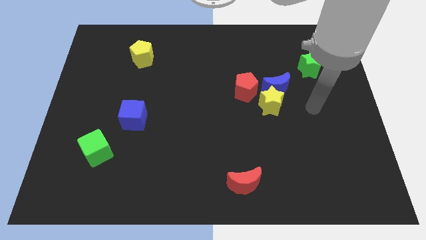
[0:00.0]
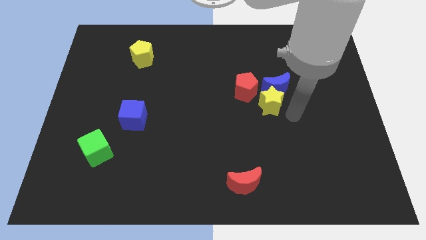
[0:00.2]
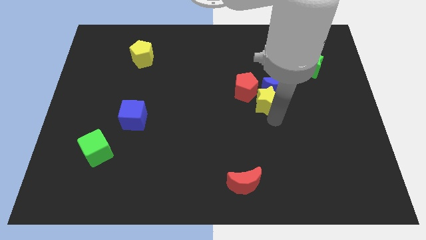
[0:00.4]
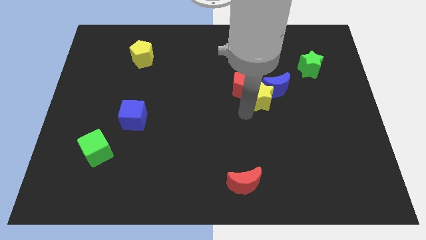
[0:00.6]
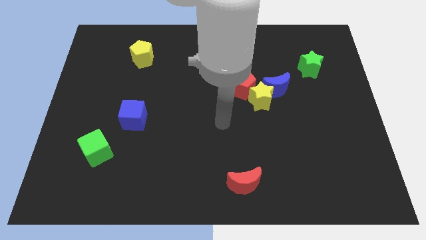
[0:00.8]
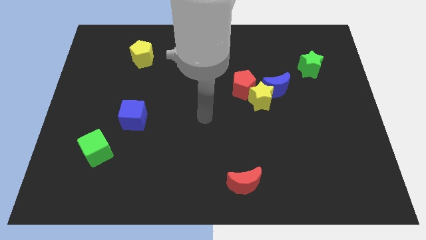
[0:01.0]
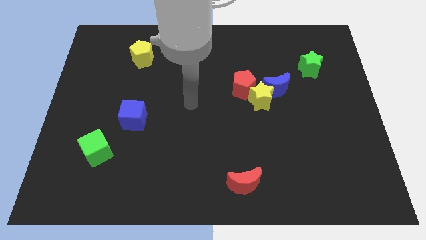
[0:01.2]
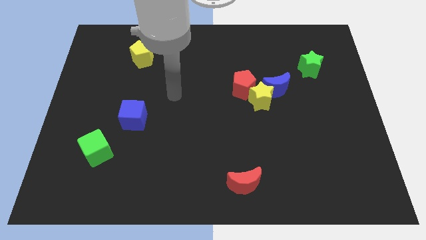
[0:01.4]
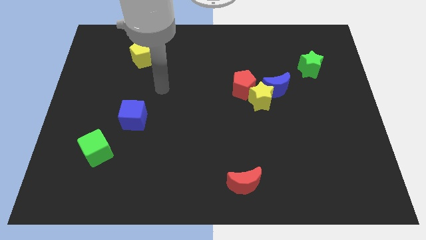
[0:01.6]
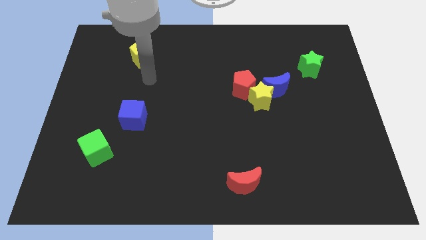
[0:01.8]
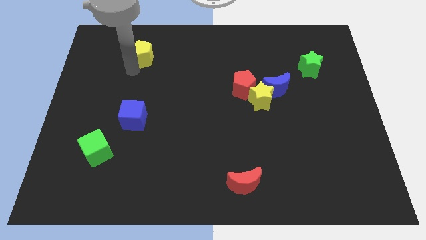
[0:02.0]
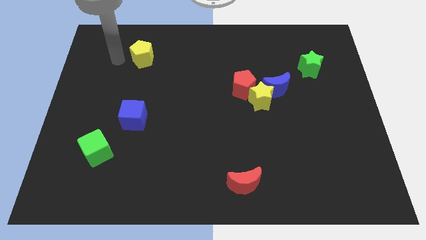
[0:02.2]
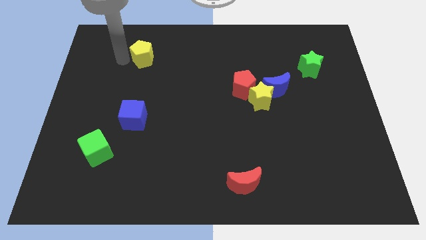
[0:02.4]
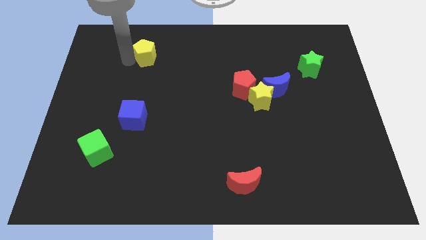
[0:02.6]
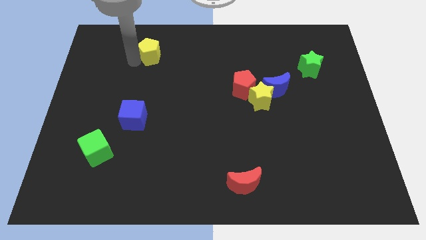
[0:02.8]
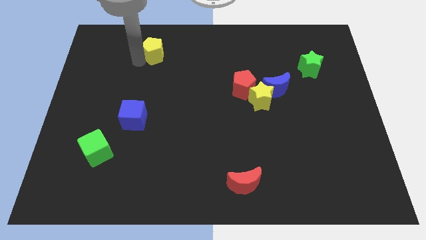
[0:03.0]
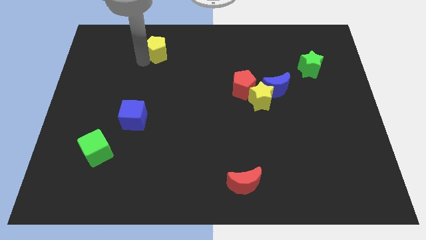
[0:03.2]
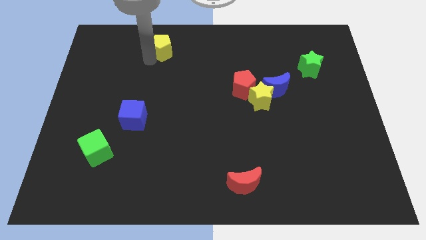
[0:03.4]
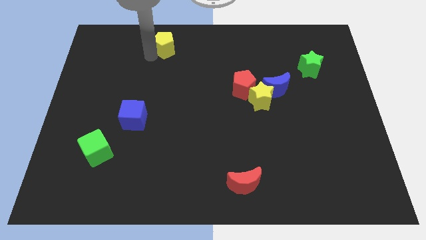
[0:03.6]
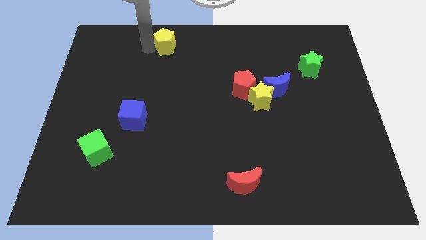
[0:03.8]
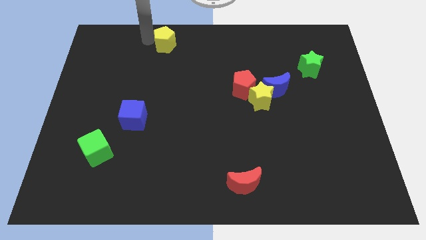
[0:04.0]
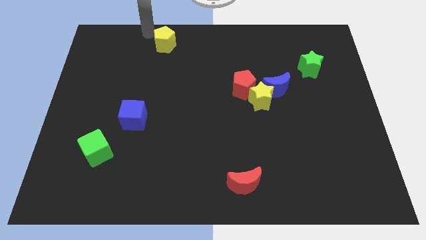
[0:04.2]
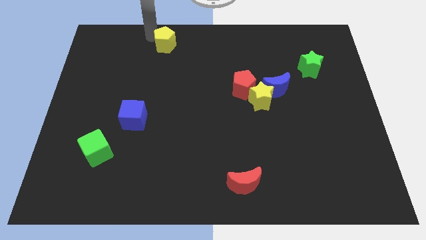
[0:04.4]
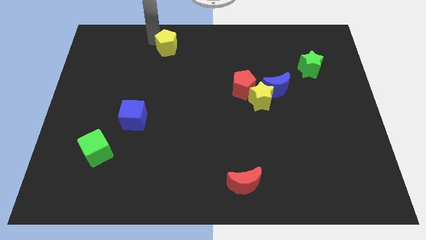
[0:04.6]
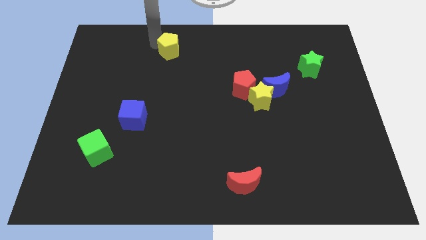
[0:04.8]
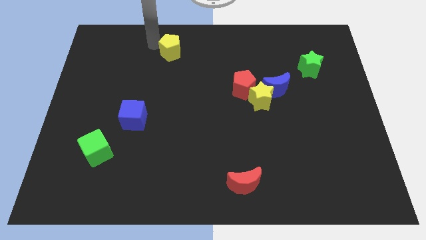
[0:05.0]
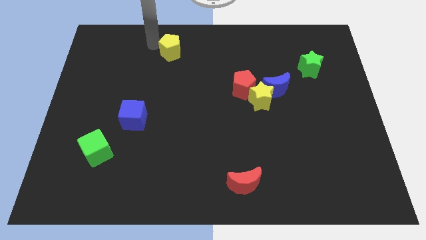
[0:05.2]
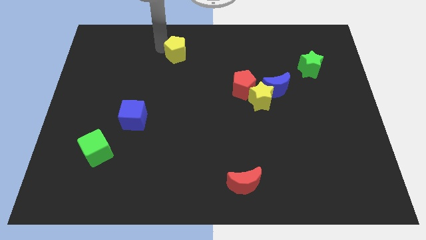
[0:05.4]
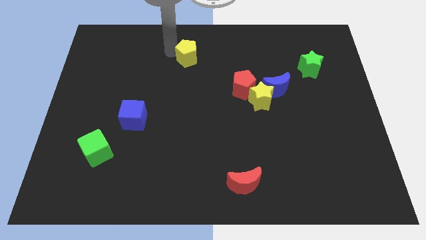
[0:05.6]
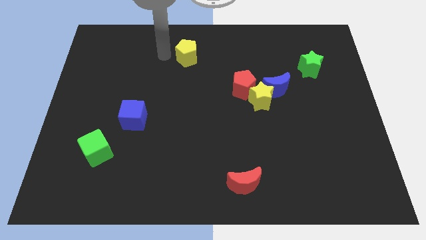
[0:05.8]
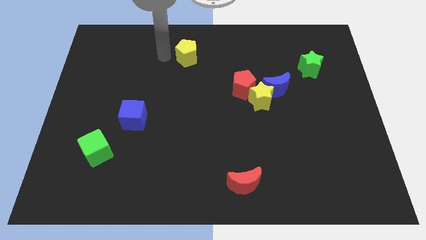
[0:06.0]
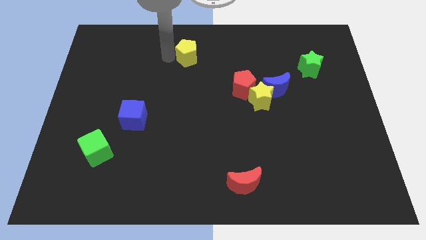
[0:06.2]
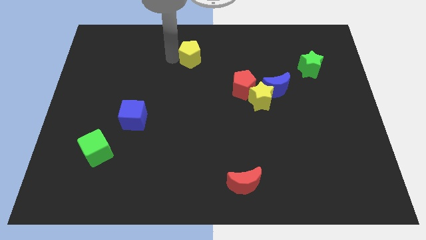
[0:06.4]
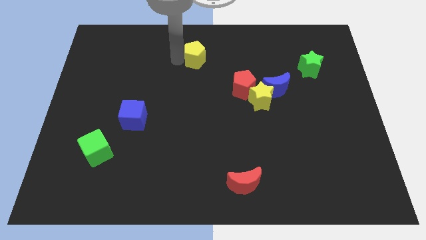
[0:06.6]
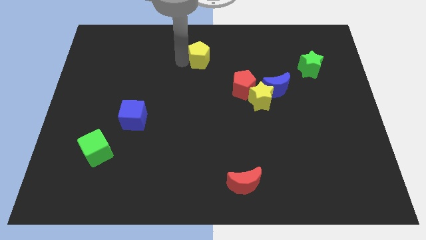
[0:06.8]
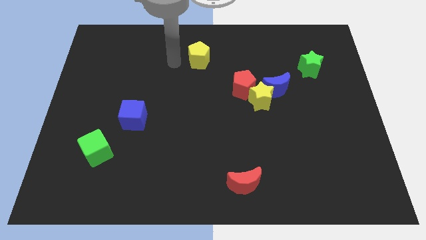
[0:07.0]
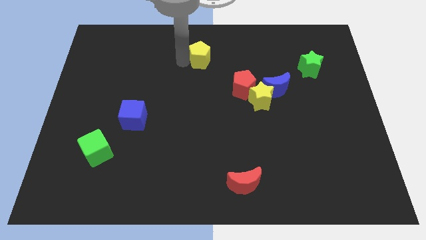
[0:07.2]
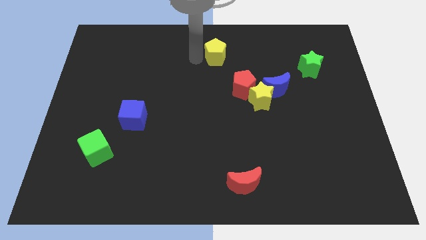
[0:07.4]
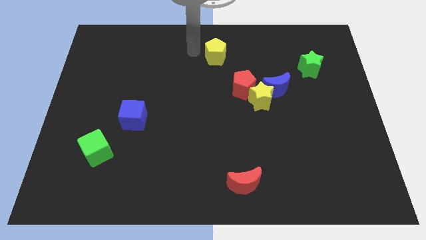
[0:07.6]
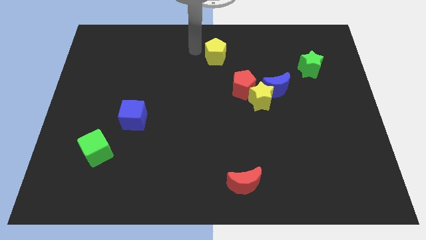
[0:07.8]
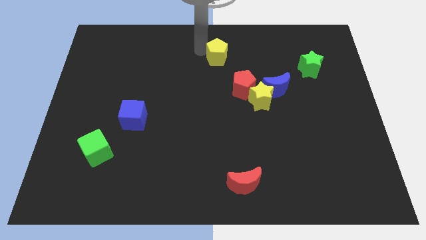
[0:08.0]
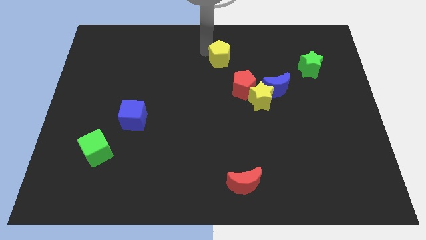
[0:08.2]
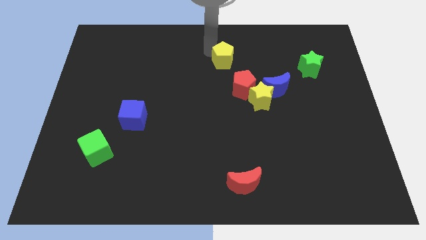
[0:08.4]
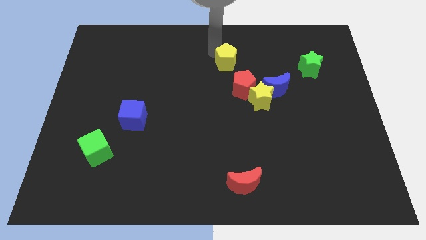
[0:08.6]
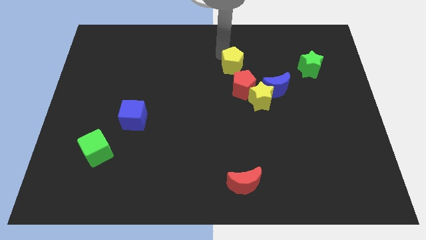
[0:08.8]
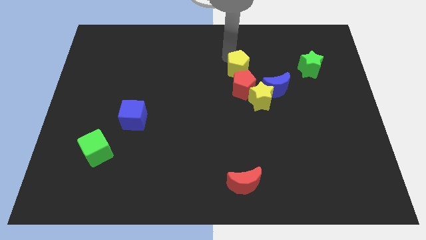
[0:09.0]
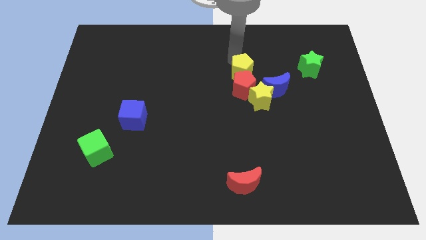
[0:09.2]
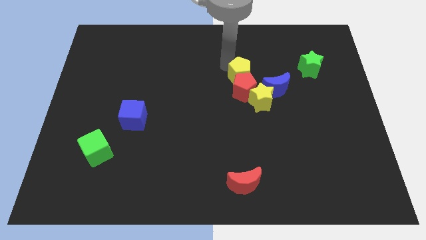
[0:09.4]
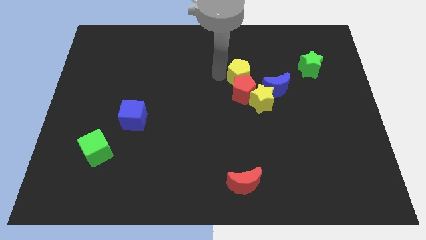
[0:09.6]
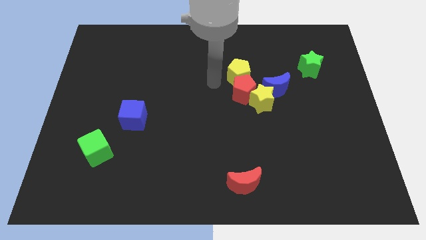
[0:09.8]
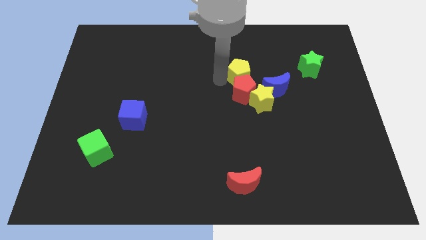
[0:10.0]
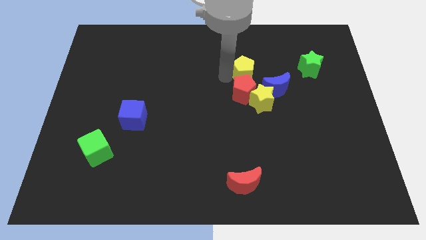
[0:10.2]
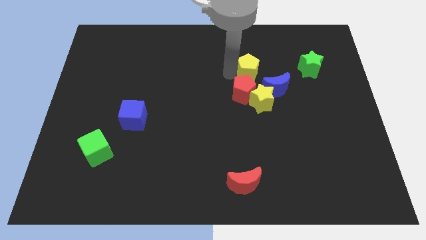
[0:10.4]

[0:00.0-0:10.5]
move the yellow pentagon left of the green star

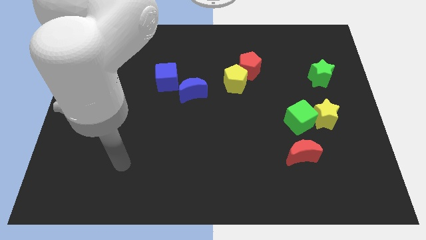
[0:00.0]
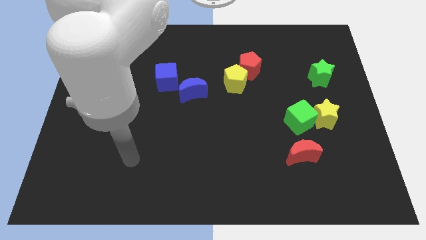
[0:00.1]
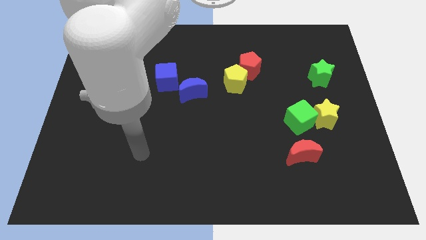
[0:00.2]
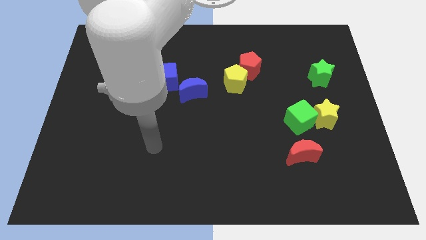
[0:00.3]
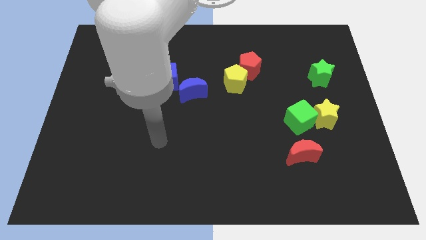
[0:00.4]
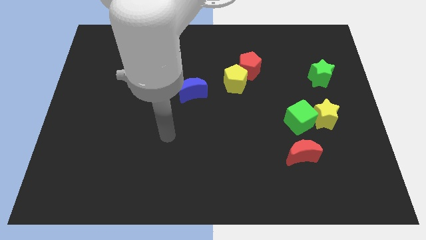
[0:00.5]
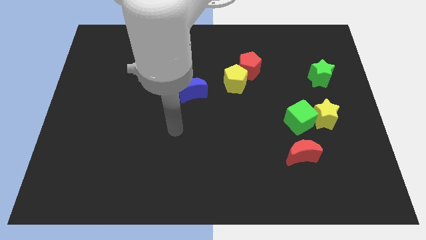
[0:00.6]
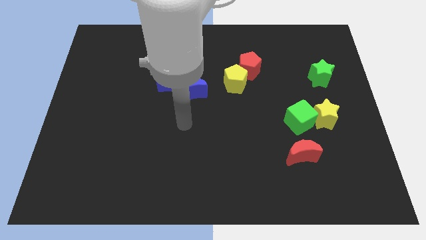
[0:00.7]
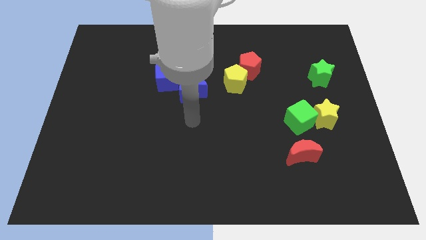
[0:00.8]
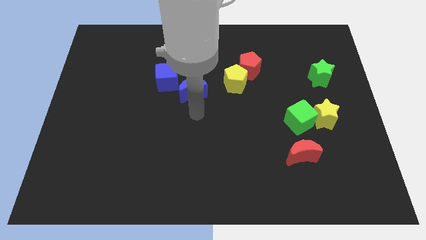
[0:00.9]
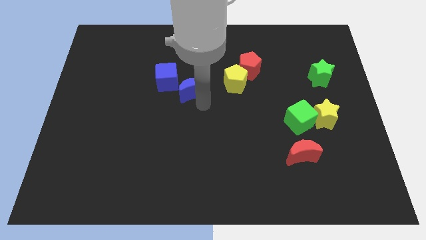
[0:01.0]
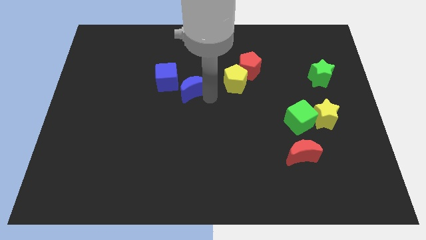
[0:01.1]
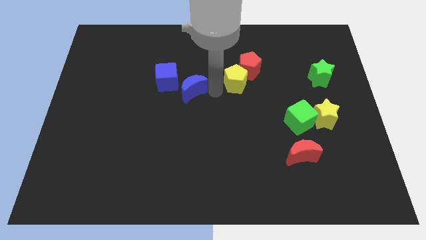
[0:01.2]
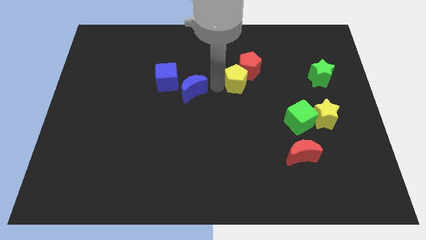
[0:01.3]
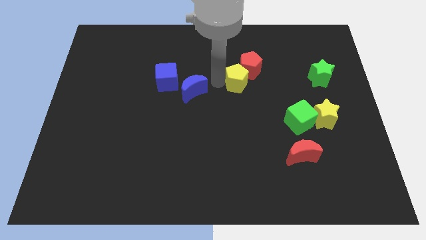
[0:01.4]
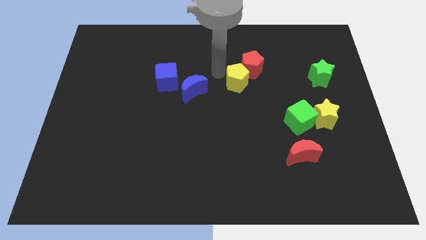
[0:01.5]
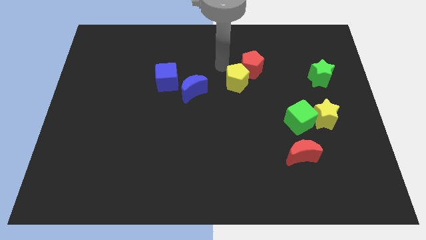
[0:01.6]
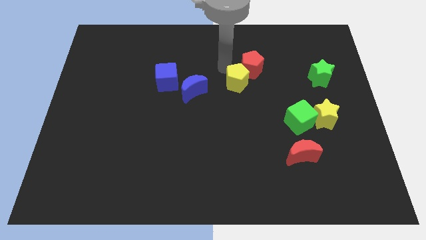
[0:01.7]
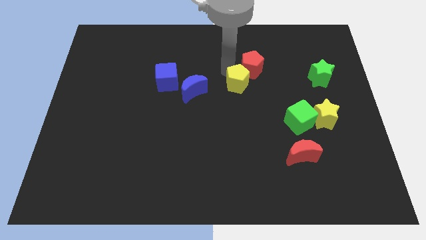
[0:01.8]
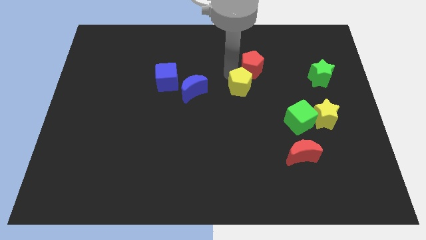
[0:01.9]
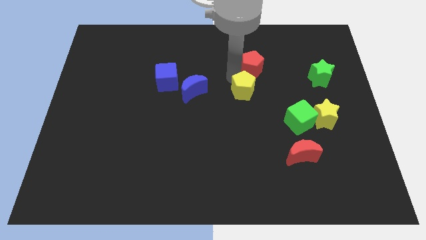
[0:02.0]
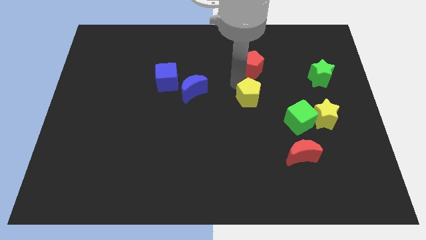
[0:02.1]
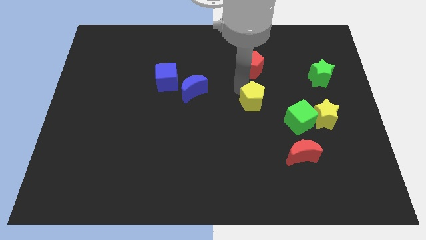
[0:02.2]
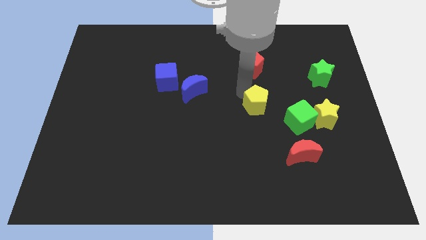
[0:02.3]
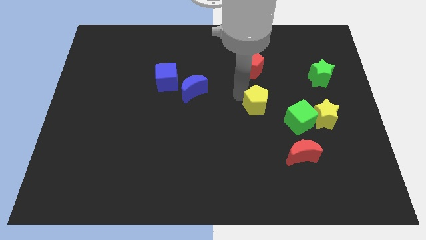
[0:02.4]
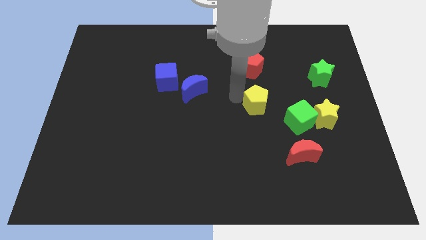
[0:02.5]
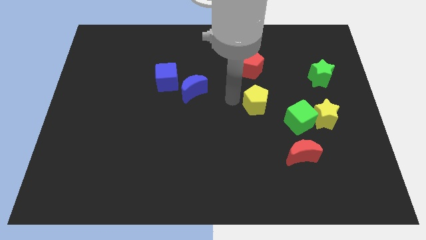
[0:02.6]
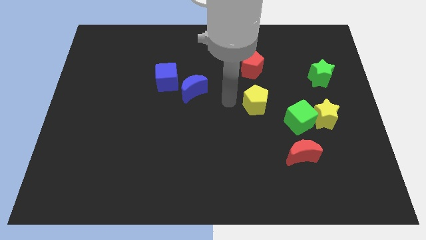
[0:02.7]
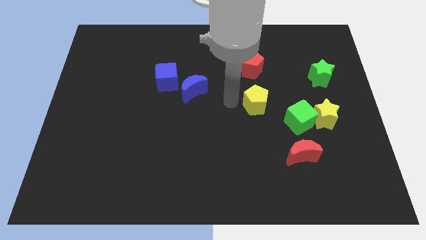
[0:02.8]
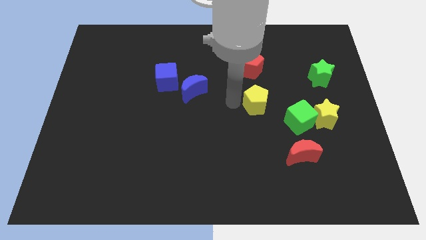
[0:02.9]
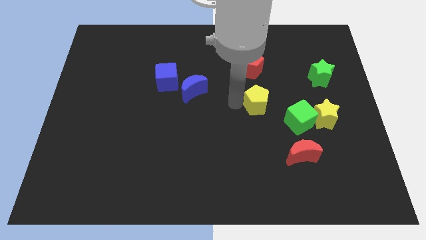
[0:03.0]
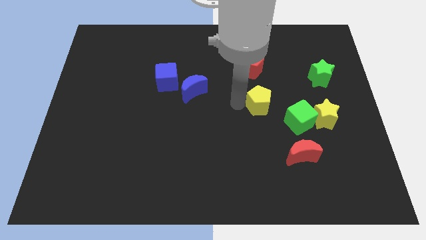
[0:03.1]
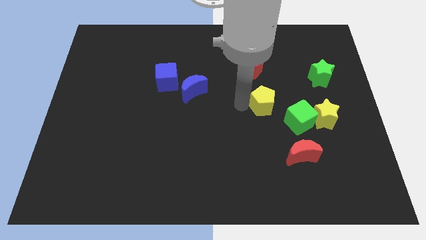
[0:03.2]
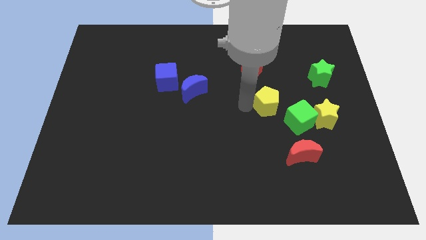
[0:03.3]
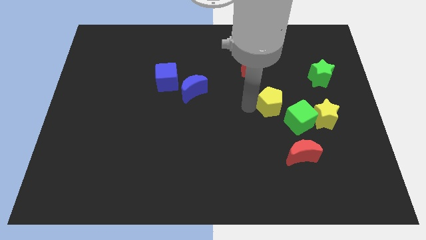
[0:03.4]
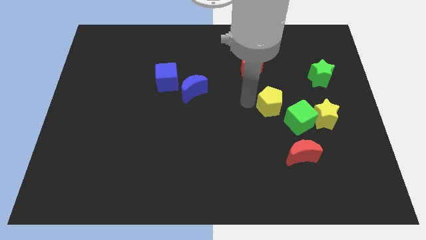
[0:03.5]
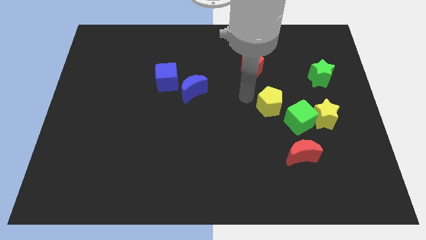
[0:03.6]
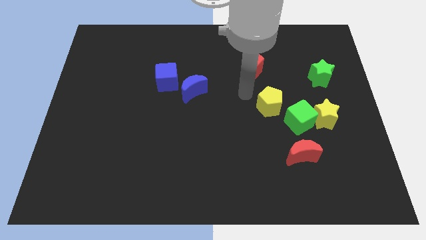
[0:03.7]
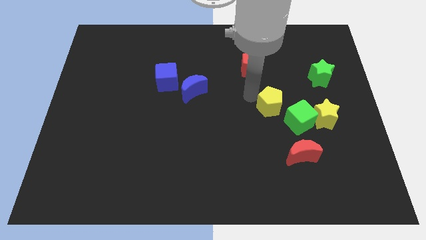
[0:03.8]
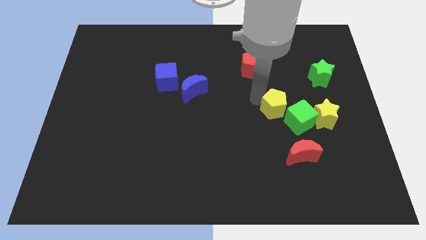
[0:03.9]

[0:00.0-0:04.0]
push the yellow pentagon above the red moon
